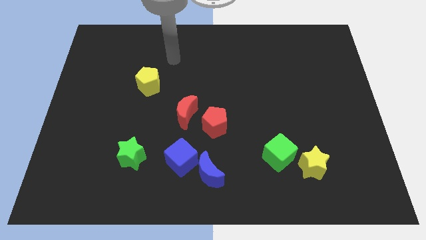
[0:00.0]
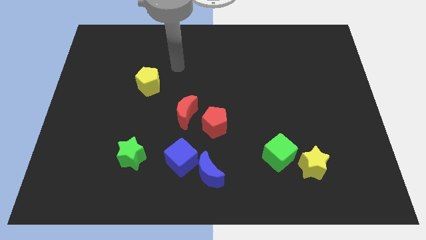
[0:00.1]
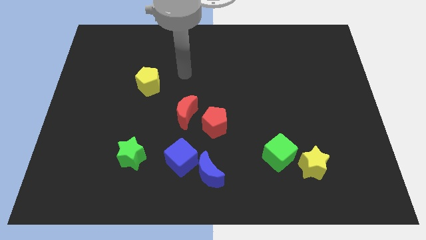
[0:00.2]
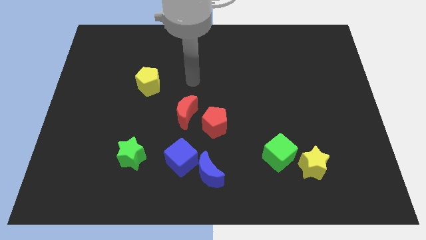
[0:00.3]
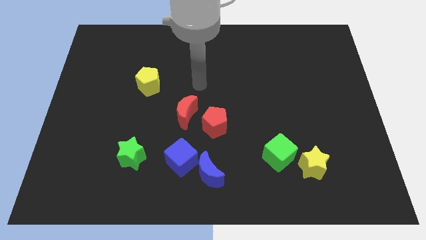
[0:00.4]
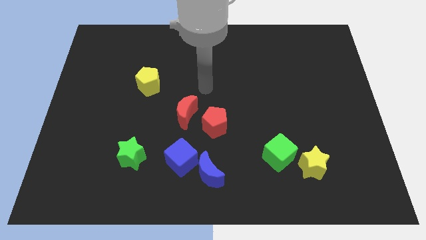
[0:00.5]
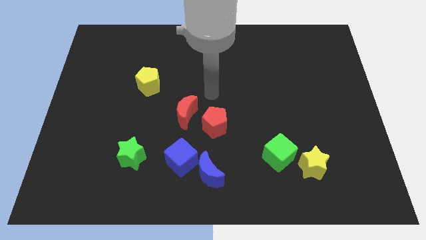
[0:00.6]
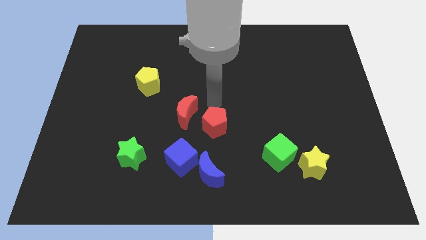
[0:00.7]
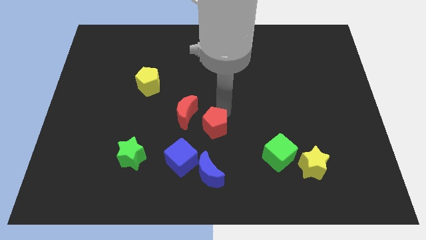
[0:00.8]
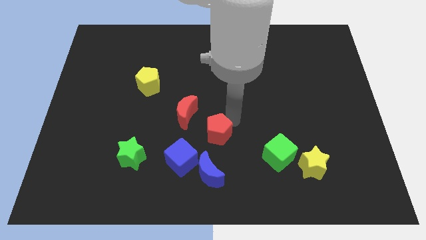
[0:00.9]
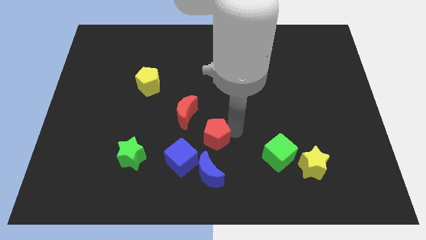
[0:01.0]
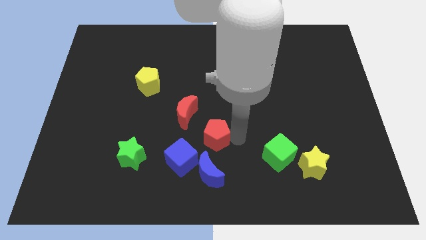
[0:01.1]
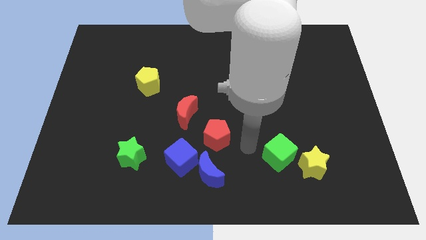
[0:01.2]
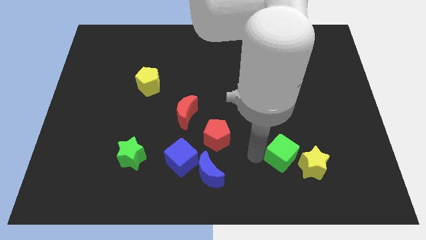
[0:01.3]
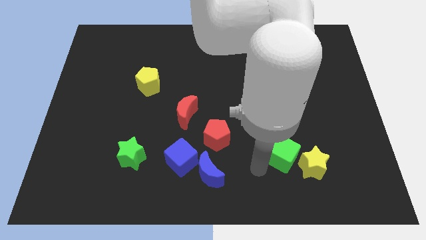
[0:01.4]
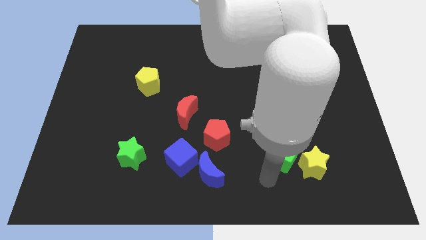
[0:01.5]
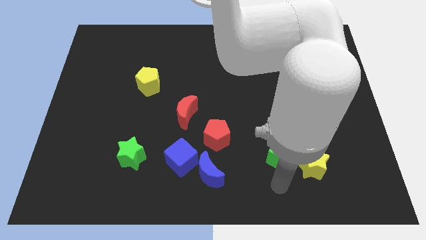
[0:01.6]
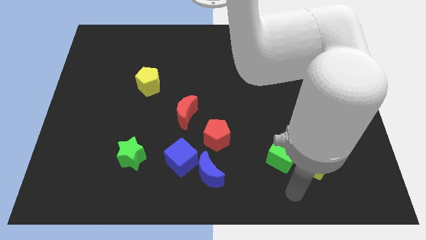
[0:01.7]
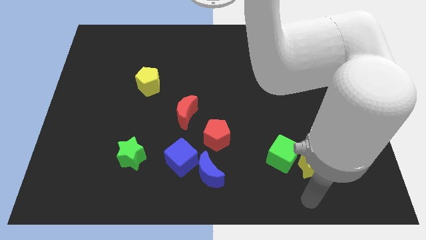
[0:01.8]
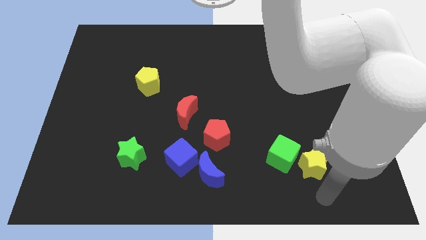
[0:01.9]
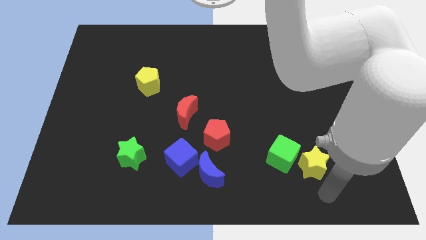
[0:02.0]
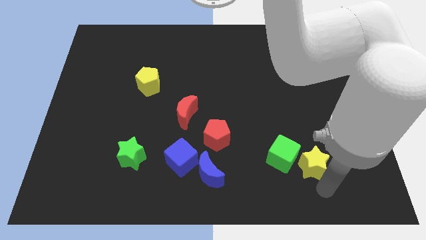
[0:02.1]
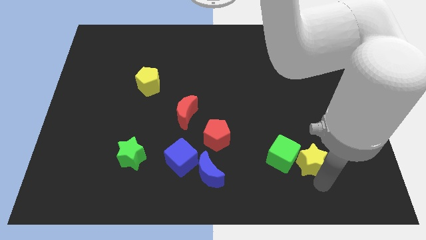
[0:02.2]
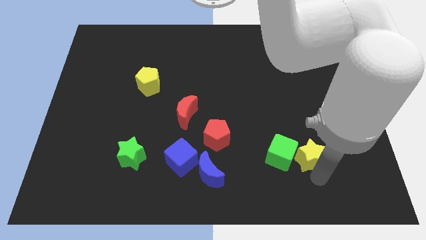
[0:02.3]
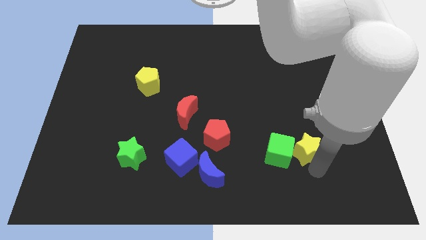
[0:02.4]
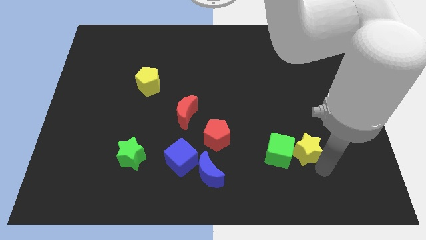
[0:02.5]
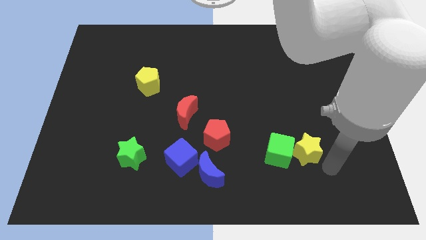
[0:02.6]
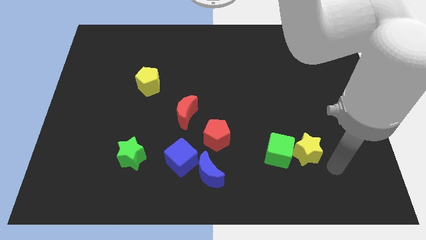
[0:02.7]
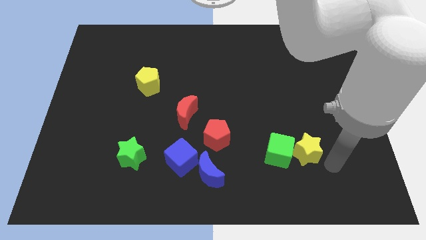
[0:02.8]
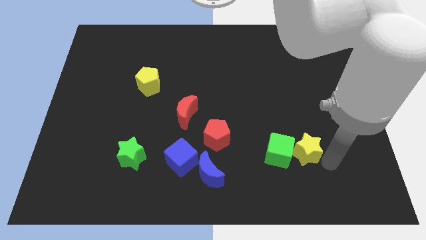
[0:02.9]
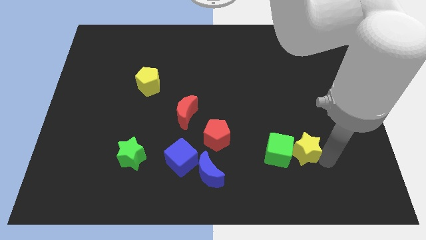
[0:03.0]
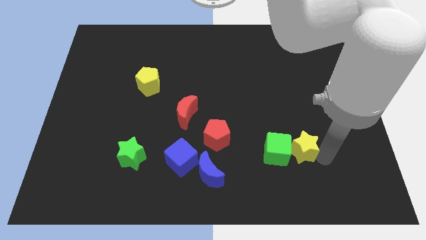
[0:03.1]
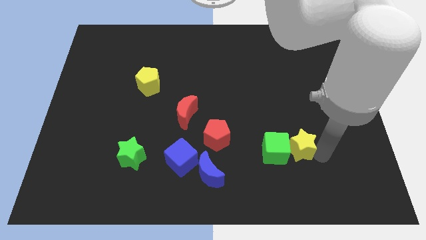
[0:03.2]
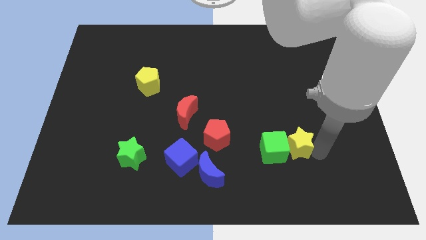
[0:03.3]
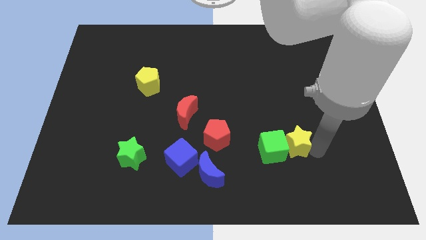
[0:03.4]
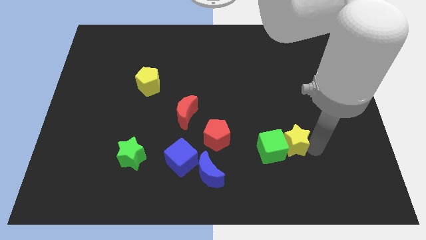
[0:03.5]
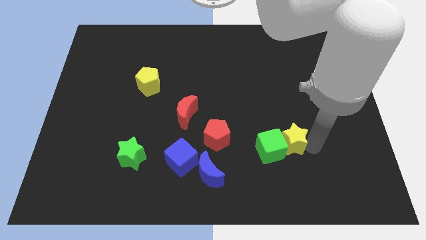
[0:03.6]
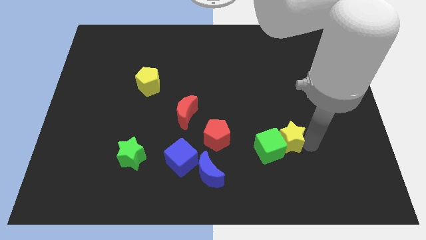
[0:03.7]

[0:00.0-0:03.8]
move the yellow star a bit upwards and to the left

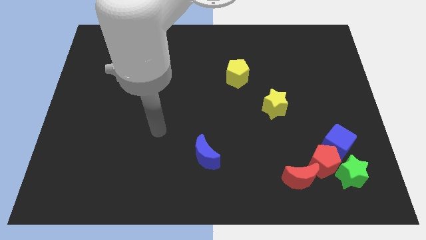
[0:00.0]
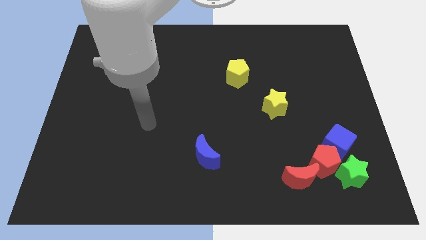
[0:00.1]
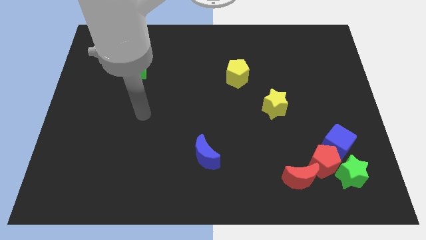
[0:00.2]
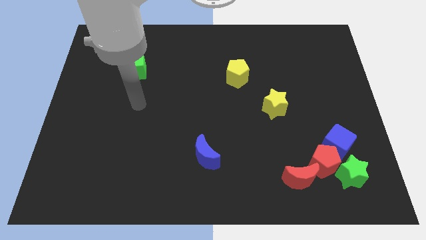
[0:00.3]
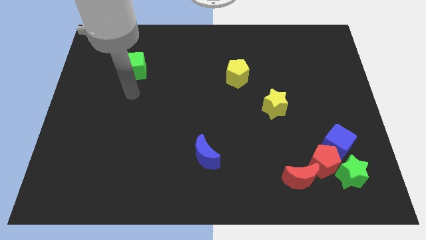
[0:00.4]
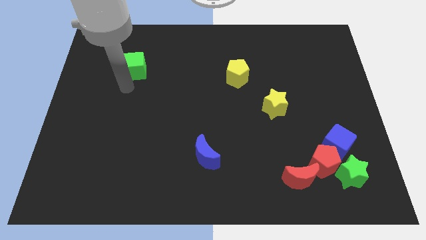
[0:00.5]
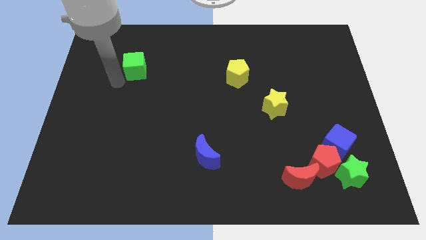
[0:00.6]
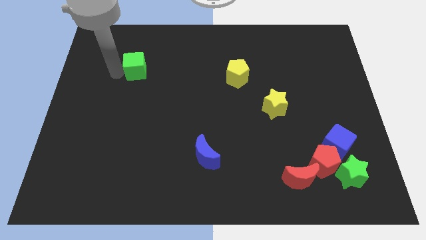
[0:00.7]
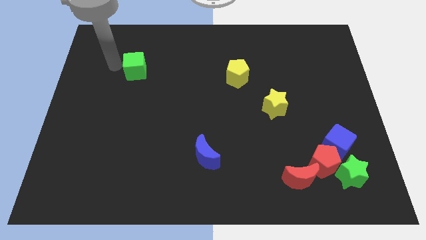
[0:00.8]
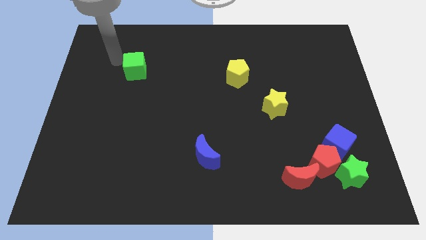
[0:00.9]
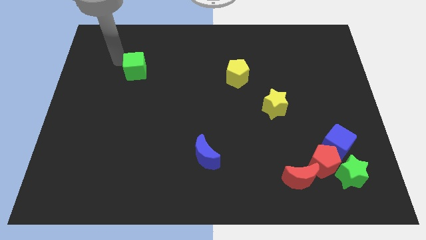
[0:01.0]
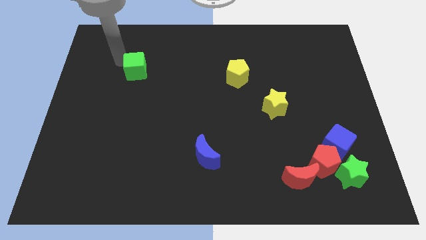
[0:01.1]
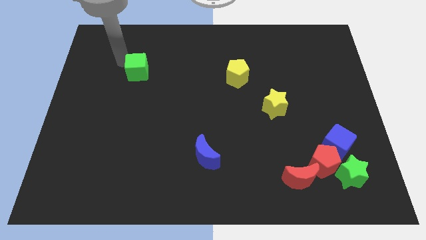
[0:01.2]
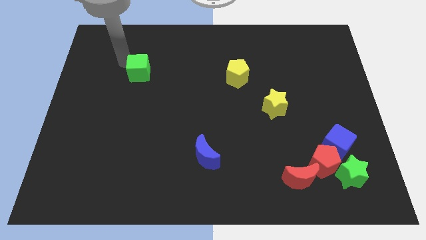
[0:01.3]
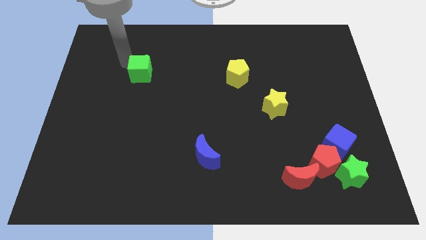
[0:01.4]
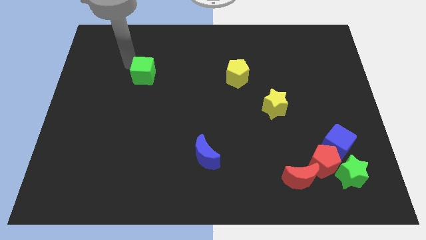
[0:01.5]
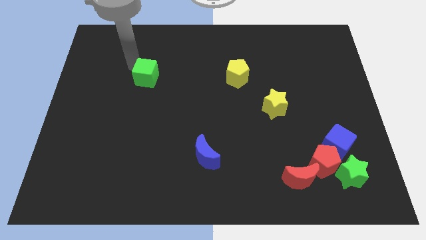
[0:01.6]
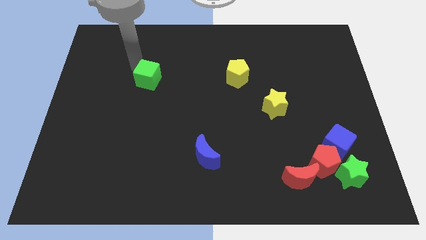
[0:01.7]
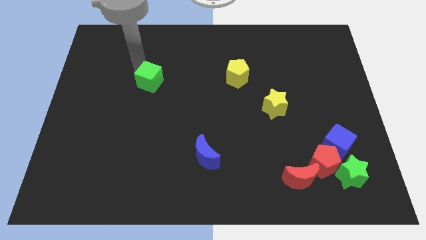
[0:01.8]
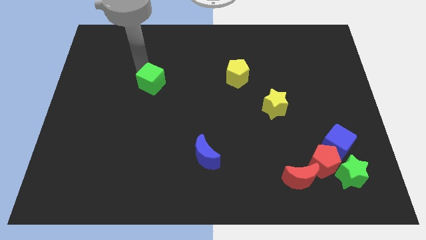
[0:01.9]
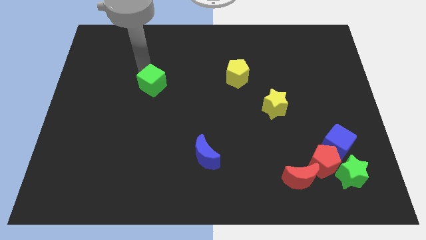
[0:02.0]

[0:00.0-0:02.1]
push the green cube a bit down and right diagonally

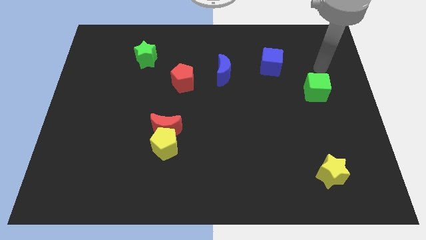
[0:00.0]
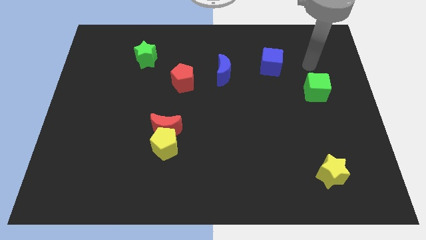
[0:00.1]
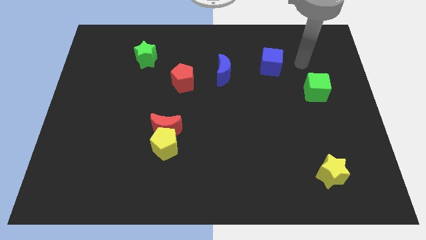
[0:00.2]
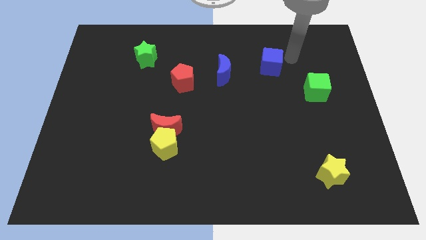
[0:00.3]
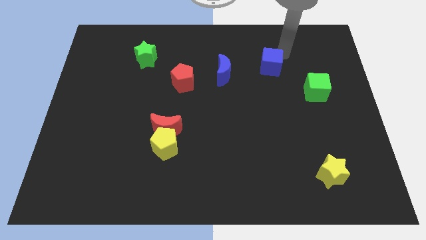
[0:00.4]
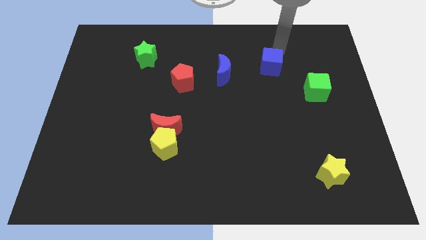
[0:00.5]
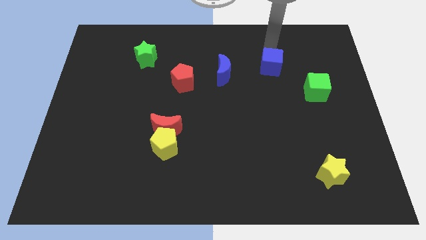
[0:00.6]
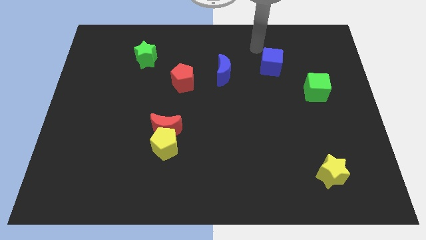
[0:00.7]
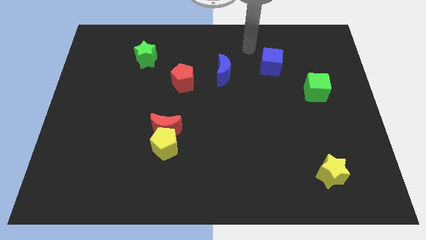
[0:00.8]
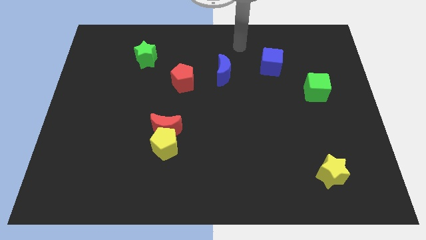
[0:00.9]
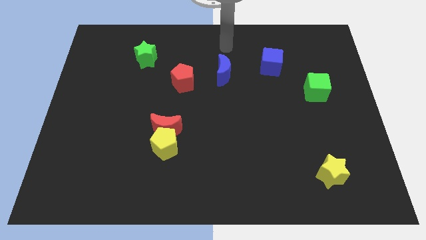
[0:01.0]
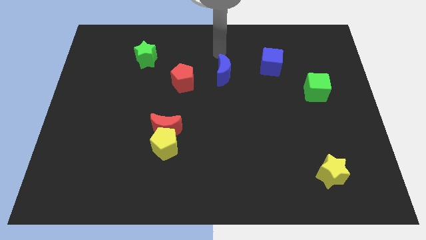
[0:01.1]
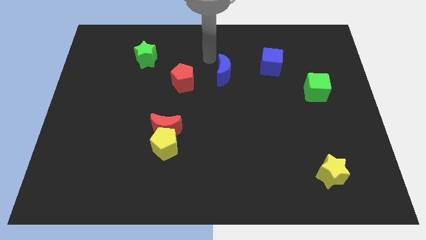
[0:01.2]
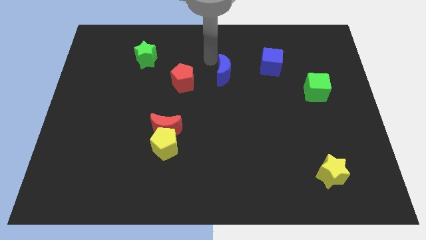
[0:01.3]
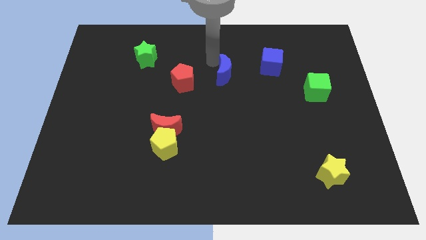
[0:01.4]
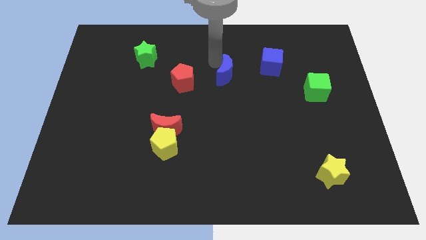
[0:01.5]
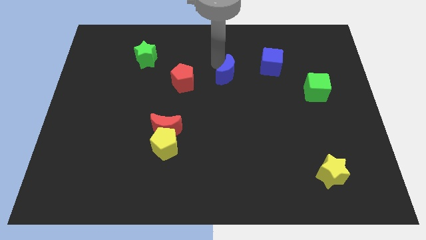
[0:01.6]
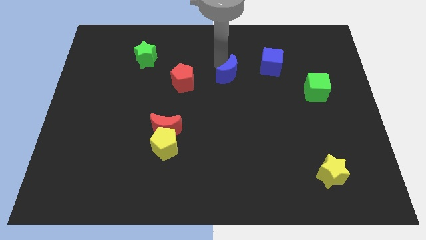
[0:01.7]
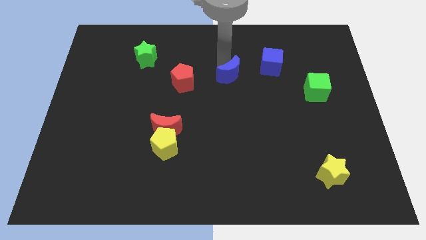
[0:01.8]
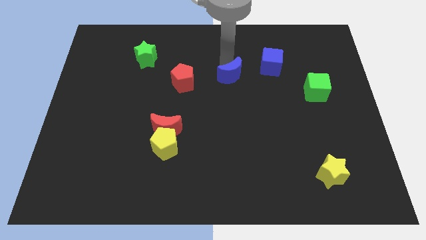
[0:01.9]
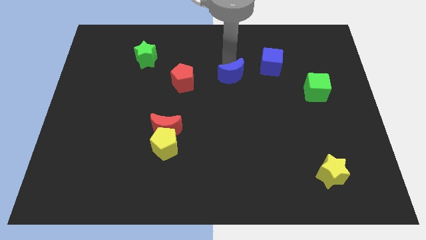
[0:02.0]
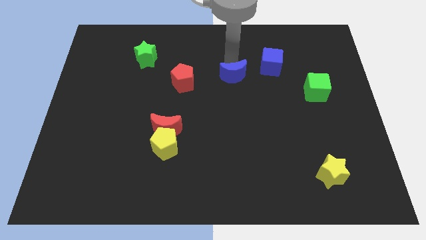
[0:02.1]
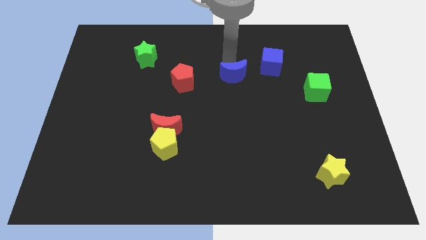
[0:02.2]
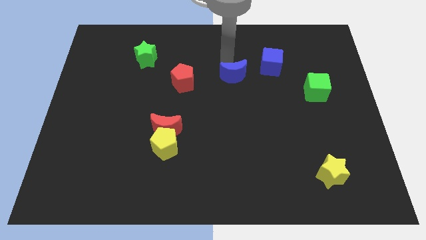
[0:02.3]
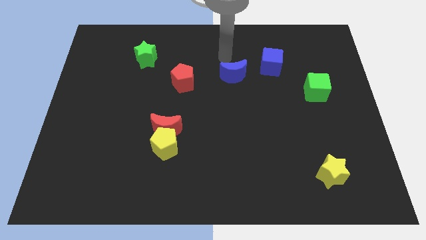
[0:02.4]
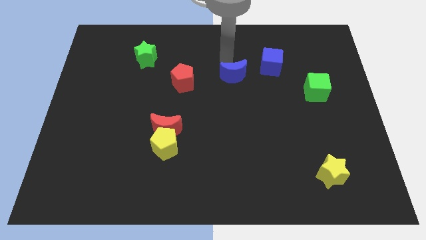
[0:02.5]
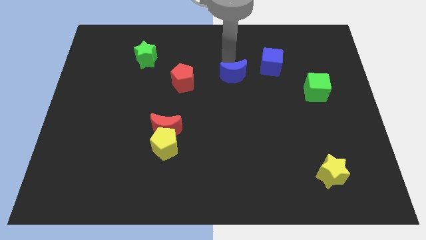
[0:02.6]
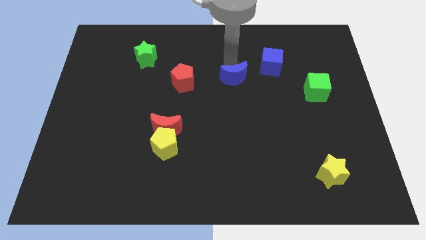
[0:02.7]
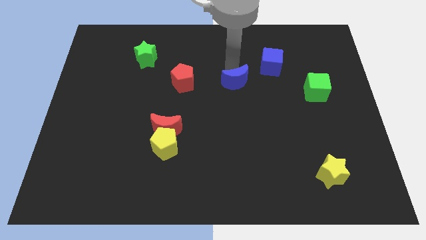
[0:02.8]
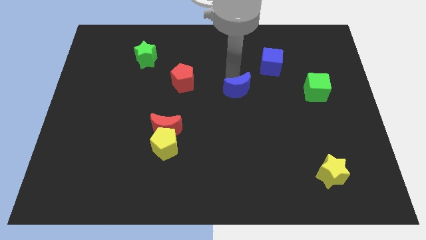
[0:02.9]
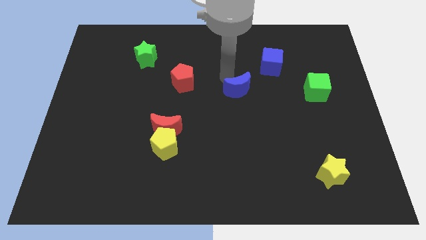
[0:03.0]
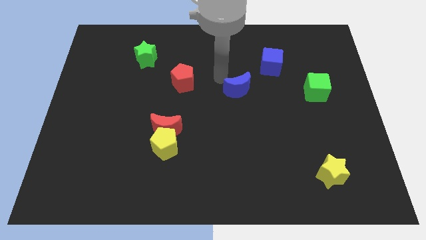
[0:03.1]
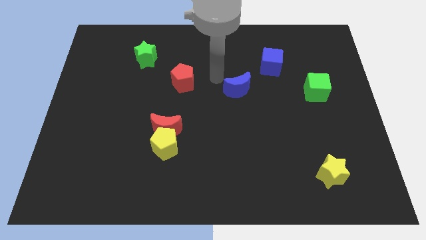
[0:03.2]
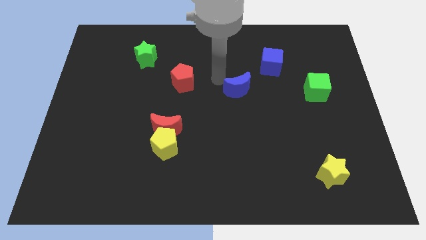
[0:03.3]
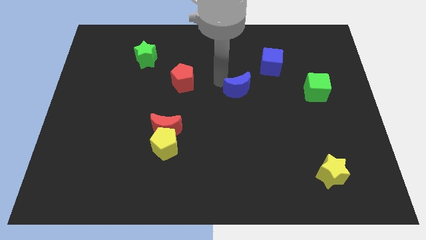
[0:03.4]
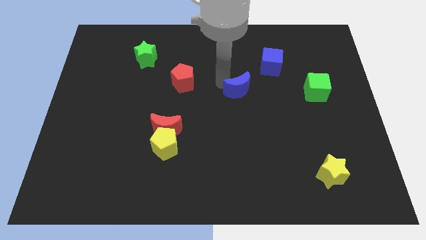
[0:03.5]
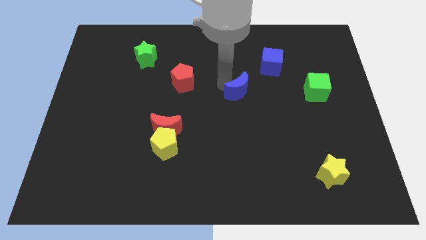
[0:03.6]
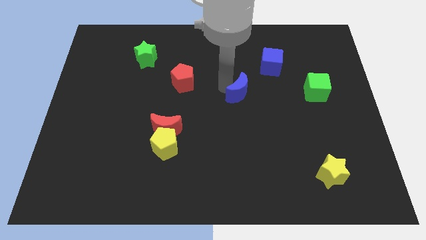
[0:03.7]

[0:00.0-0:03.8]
slide the blue moon downwards and then to the right a little bit
